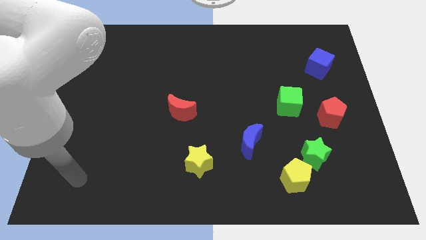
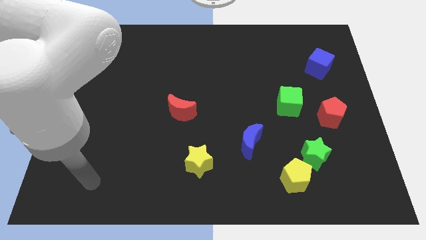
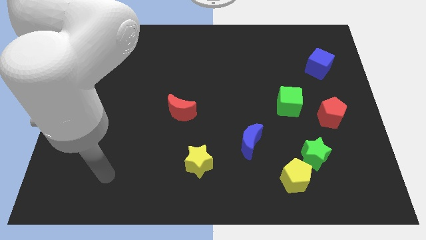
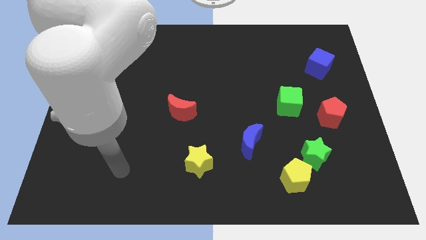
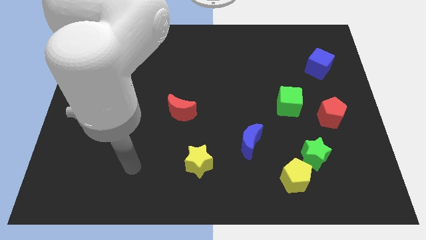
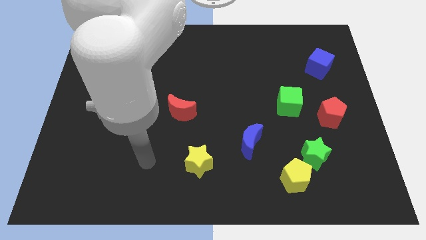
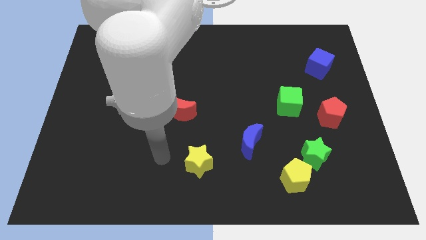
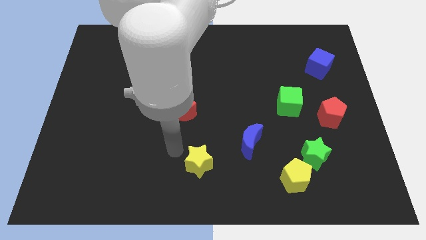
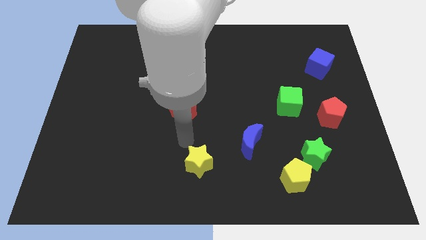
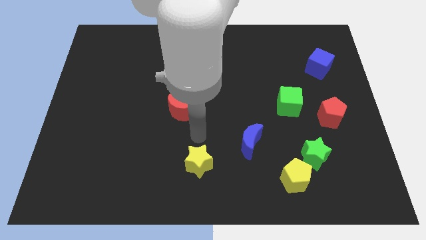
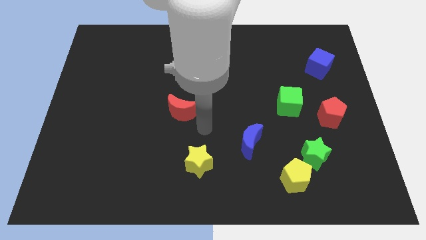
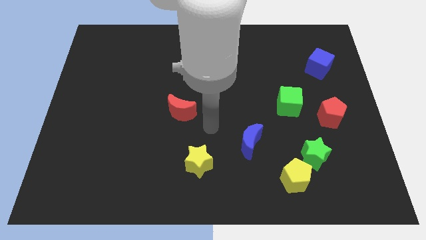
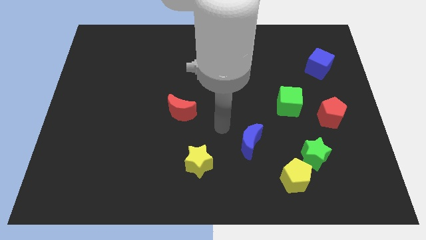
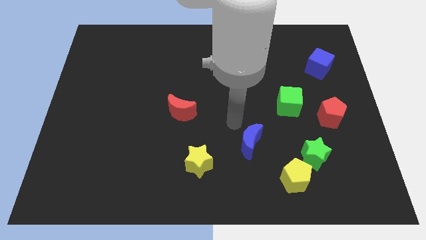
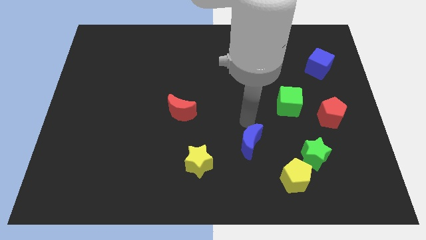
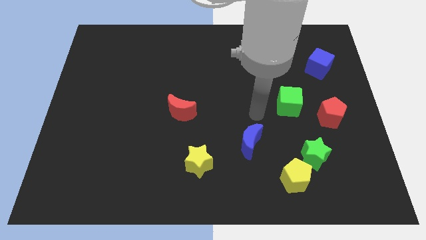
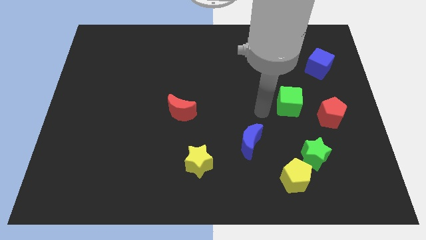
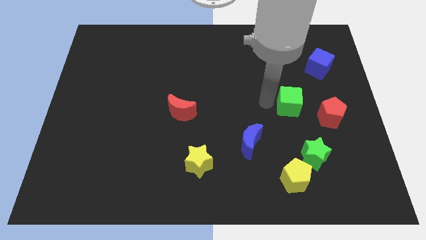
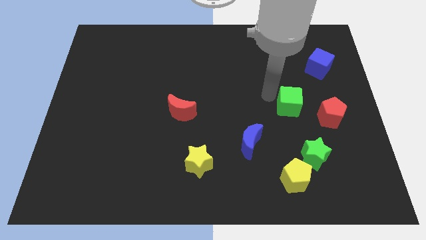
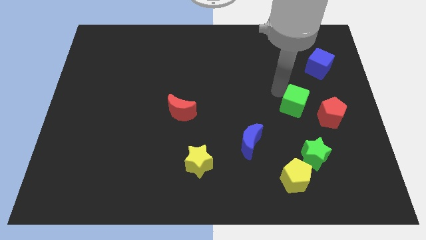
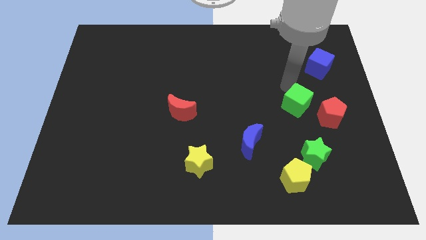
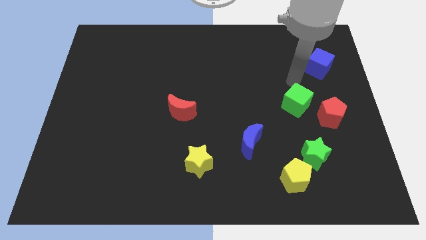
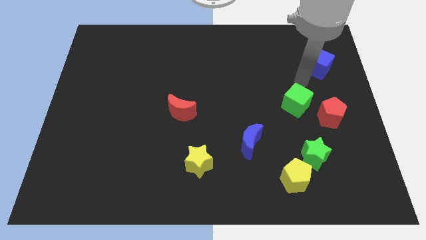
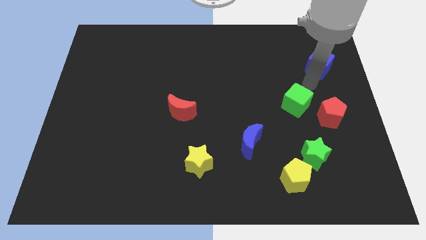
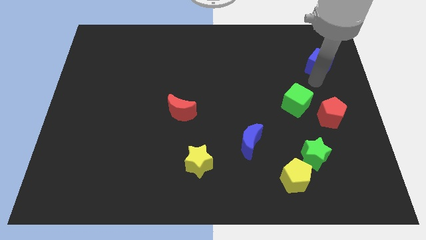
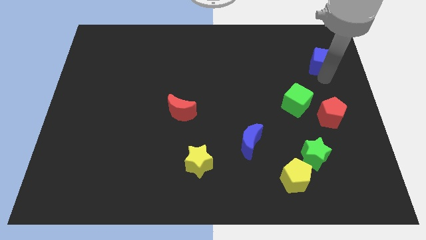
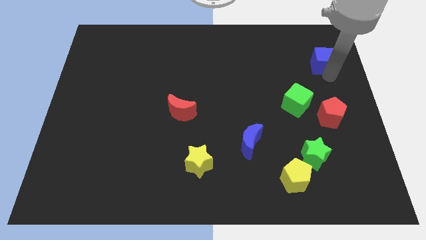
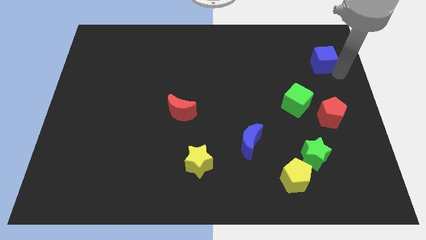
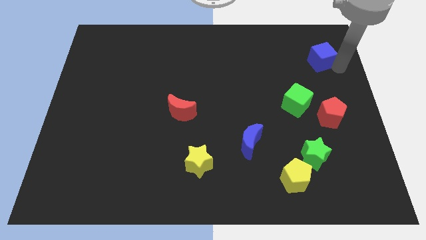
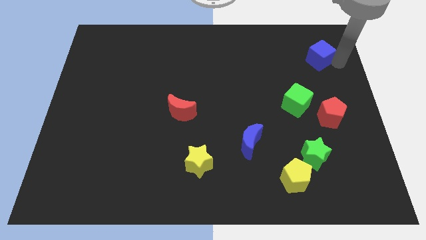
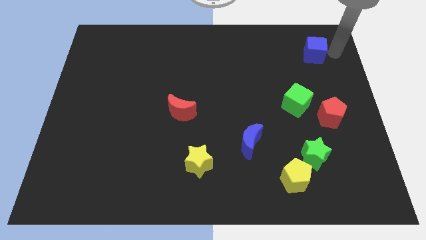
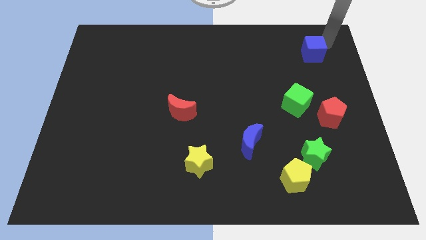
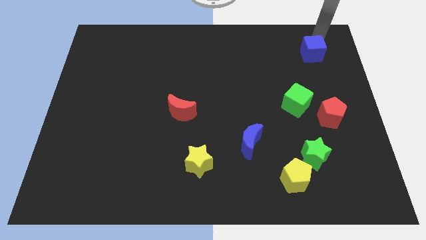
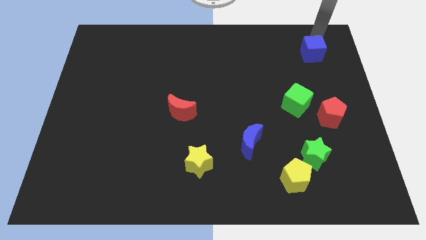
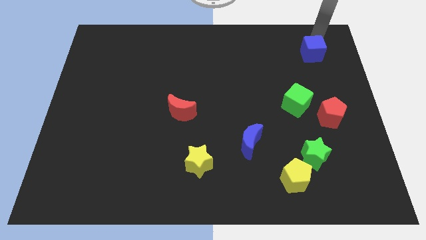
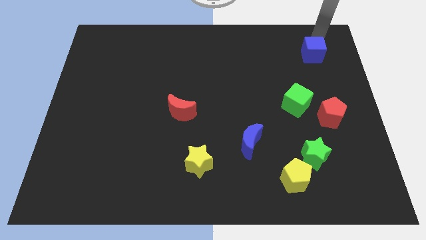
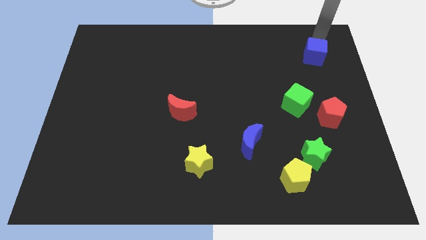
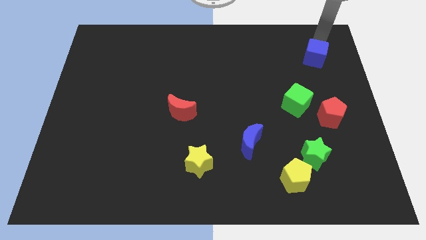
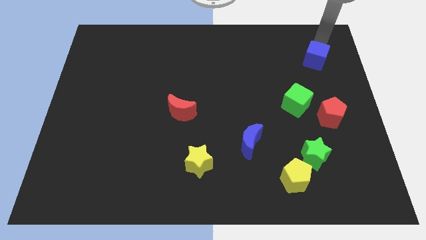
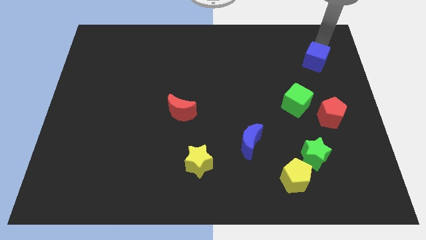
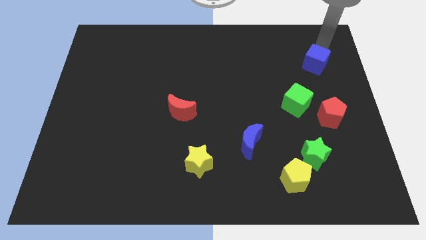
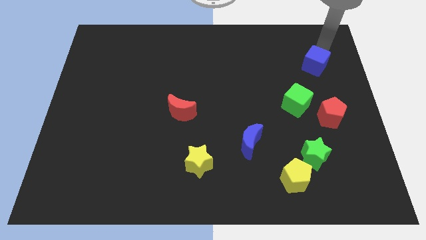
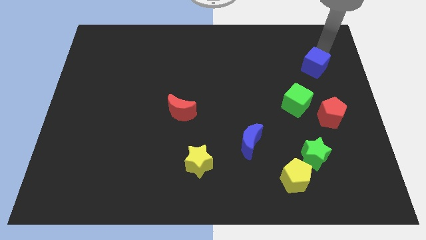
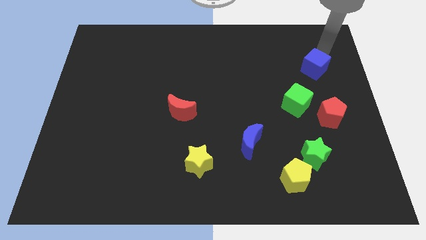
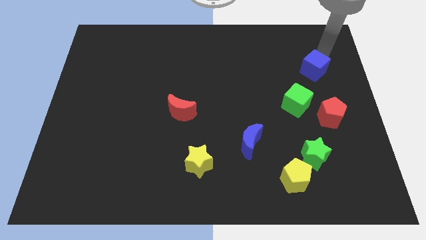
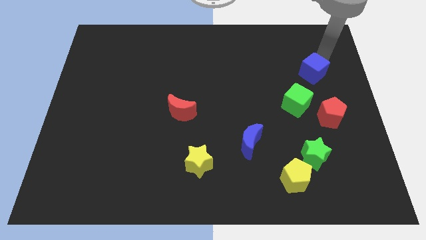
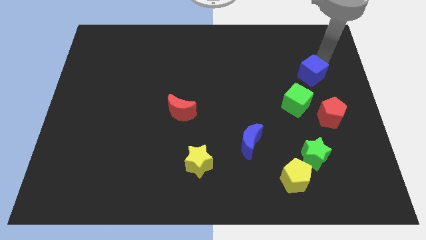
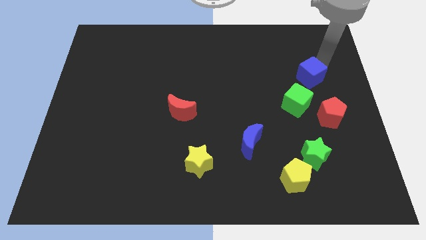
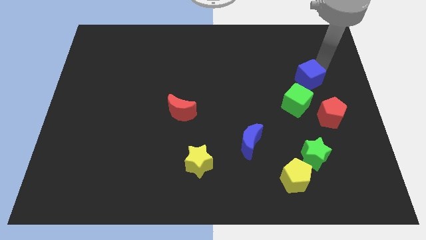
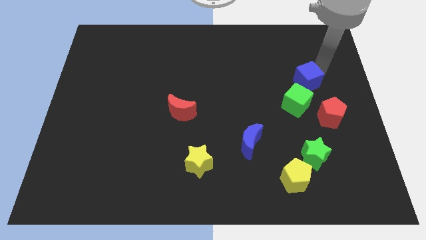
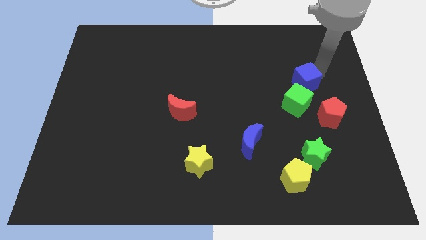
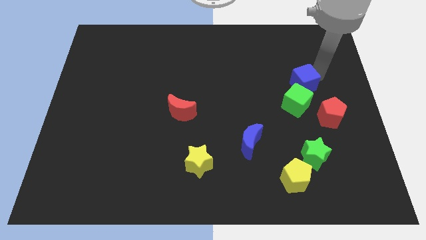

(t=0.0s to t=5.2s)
slide the blue cube slightly down and to the left diagonally

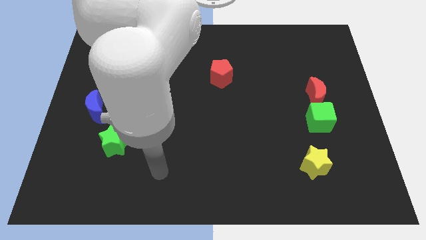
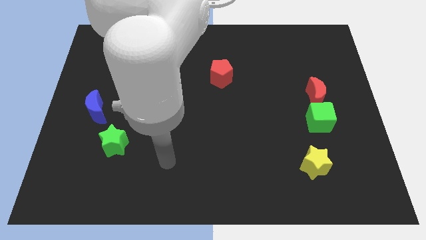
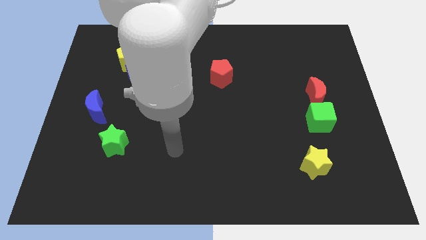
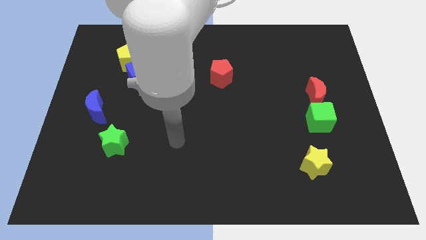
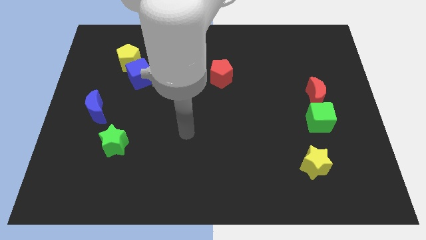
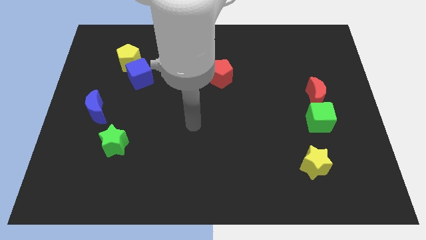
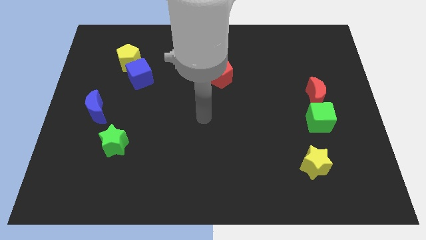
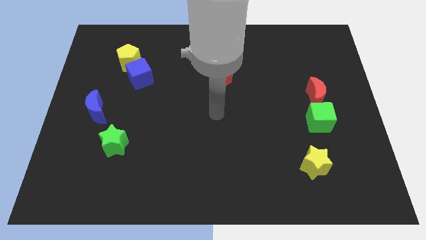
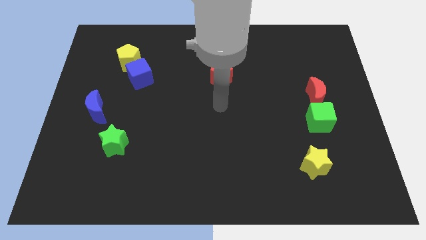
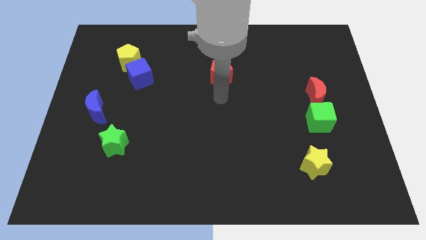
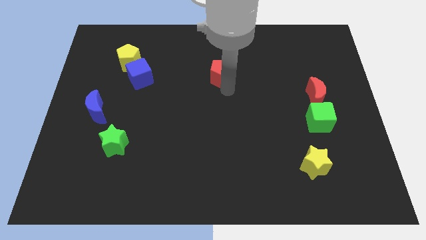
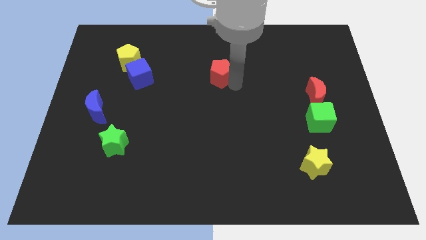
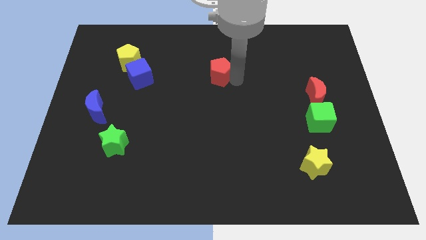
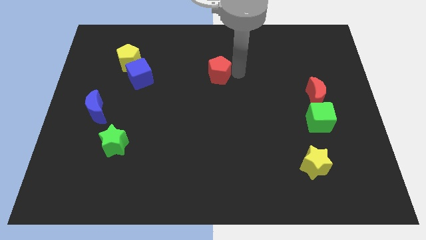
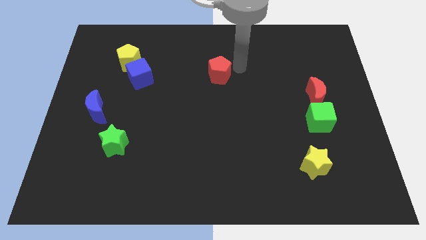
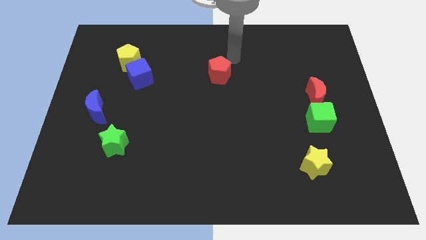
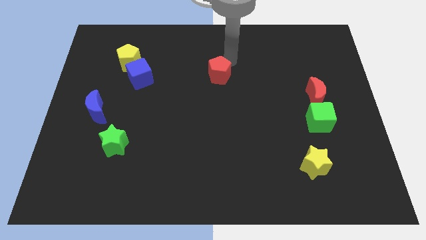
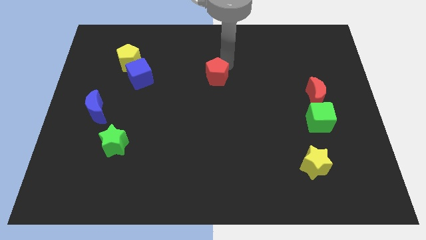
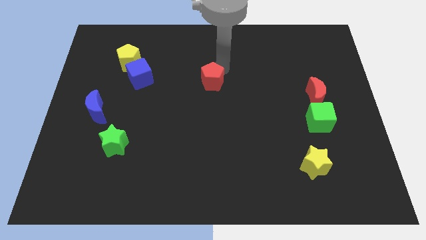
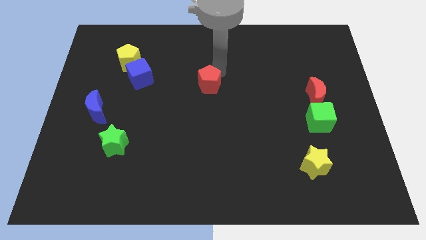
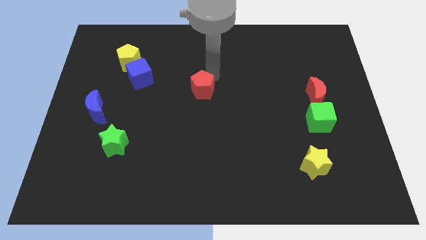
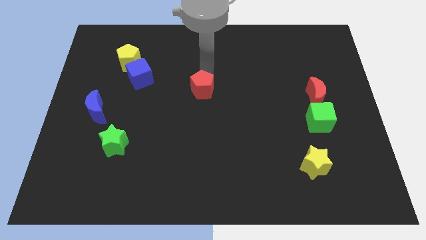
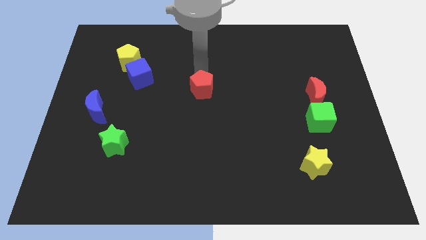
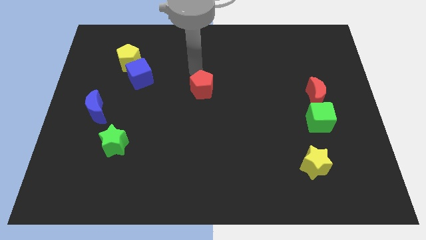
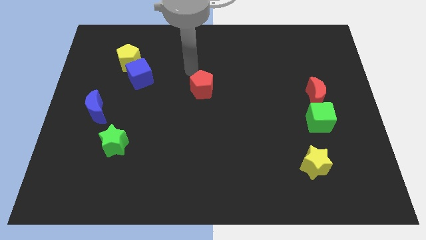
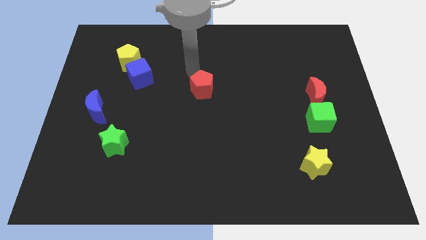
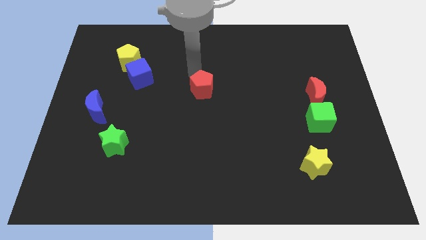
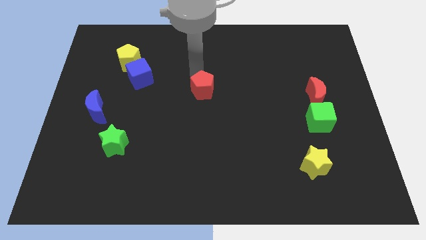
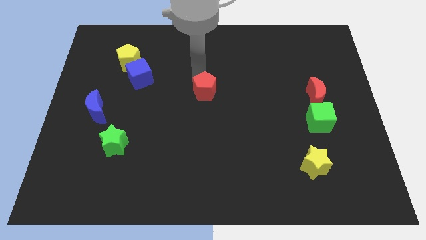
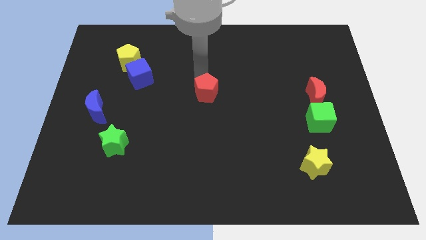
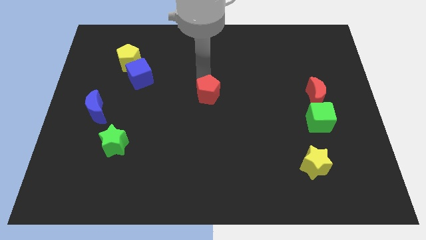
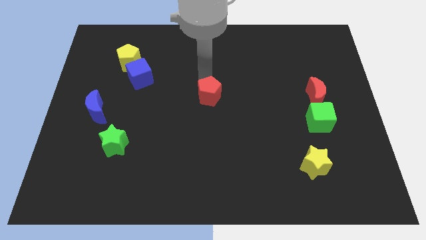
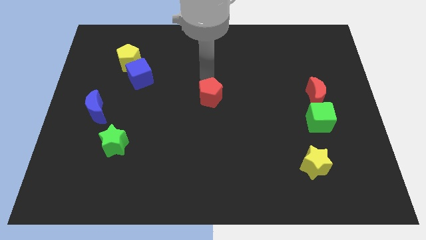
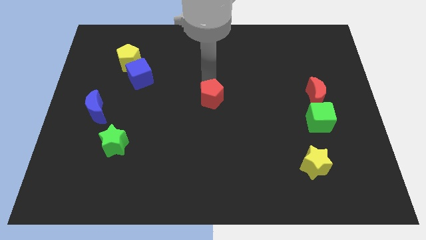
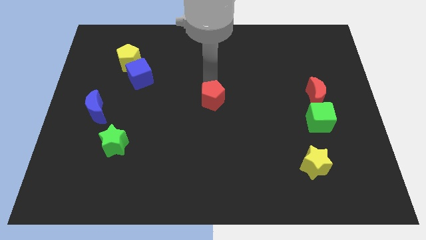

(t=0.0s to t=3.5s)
slightly move the red pentagon down
